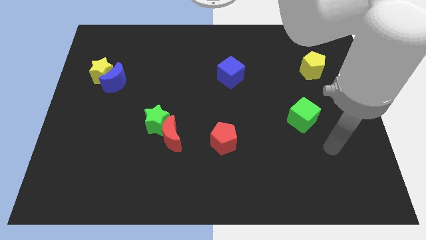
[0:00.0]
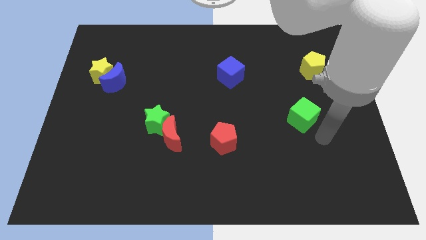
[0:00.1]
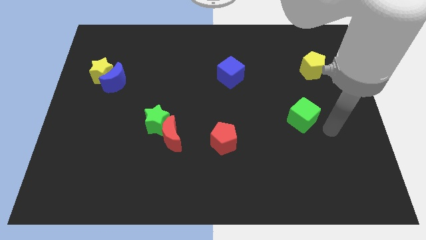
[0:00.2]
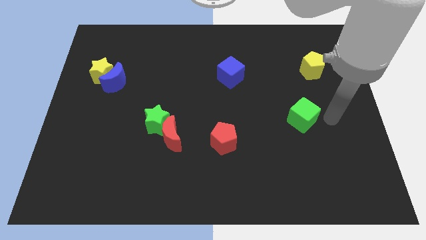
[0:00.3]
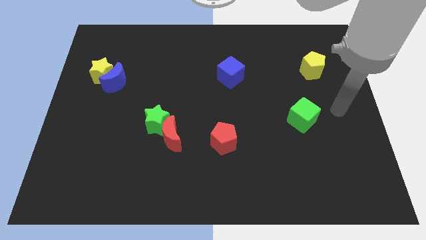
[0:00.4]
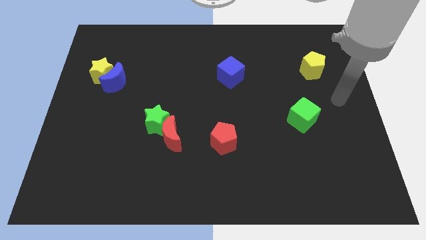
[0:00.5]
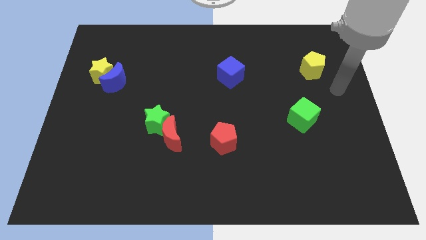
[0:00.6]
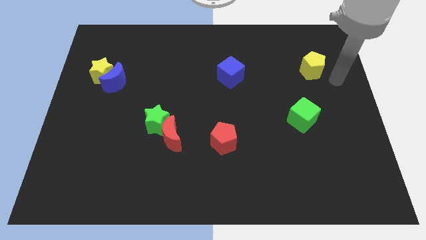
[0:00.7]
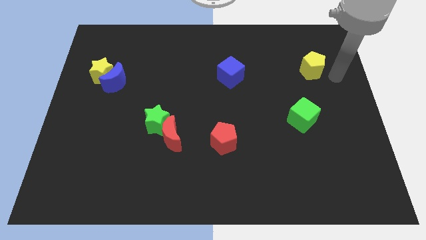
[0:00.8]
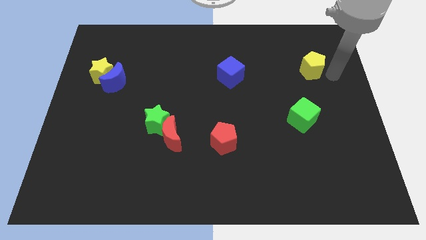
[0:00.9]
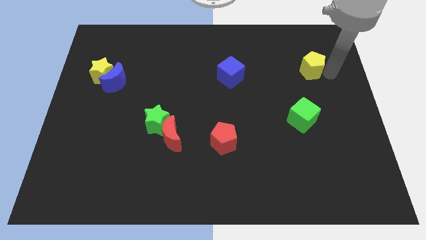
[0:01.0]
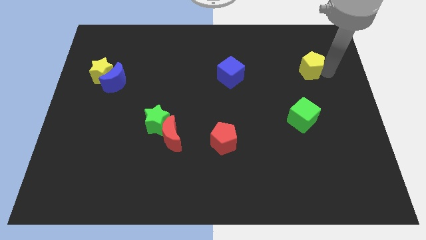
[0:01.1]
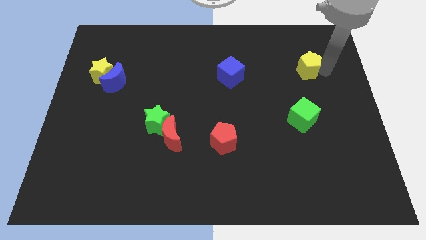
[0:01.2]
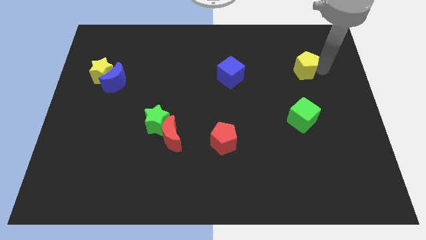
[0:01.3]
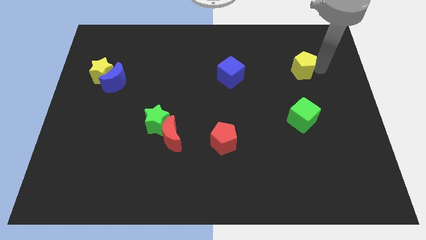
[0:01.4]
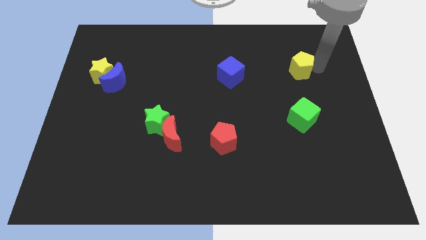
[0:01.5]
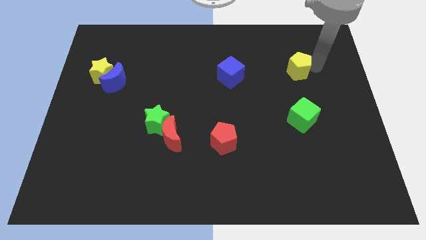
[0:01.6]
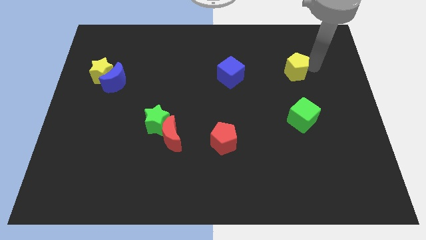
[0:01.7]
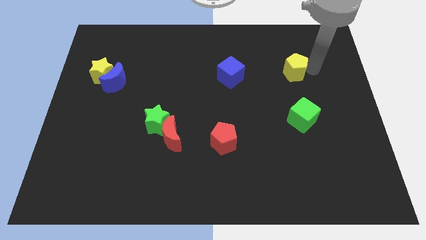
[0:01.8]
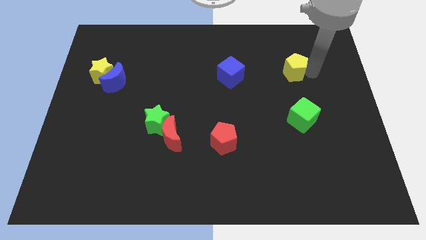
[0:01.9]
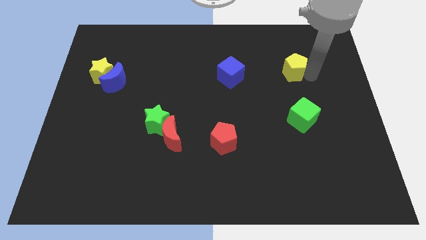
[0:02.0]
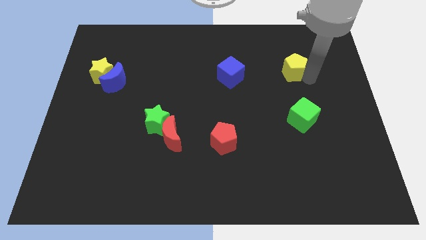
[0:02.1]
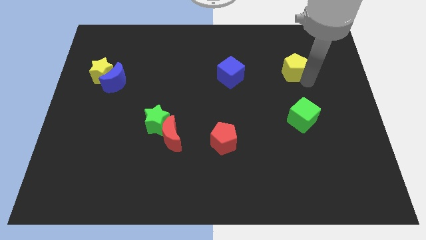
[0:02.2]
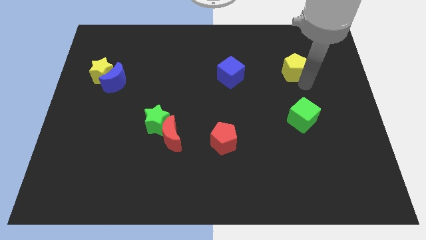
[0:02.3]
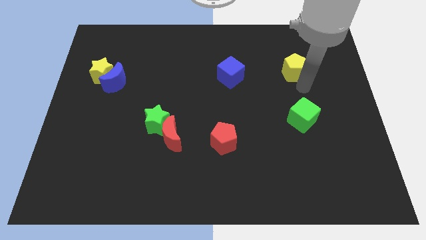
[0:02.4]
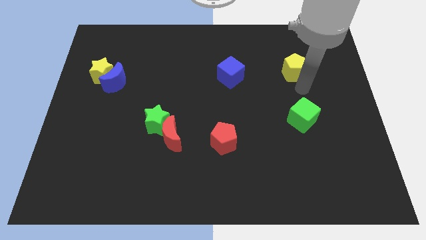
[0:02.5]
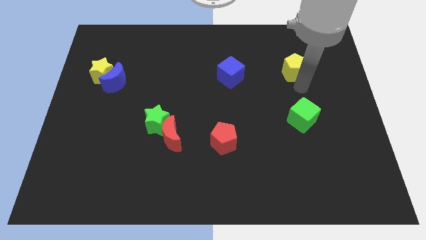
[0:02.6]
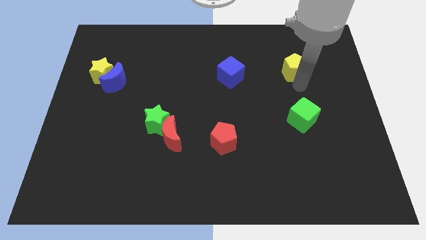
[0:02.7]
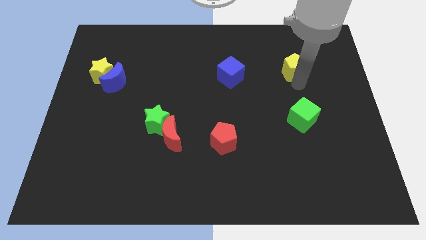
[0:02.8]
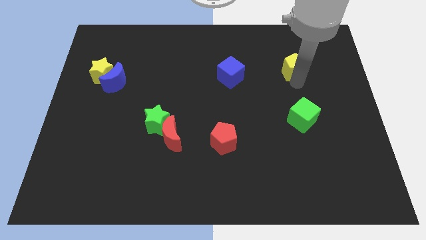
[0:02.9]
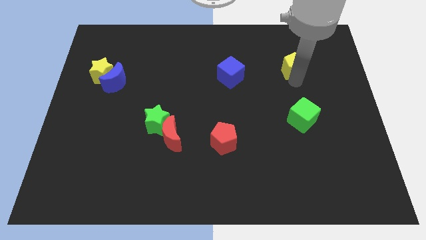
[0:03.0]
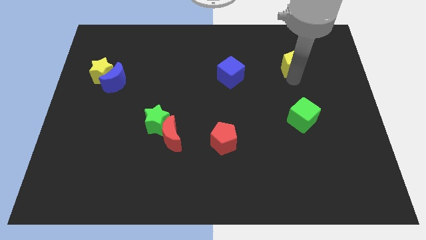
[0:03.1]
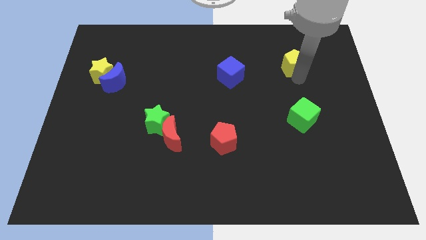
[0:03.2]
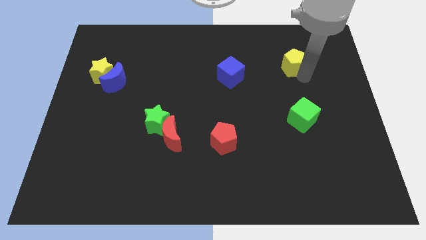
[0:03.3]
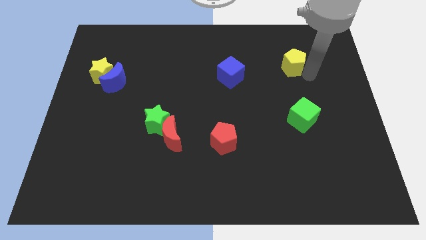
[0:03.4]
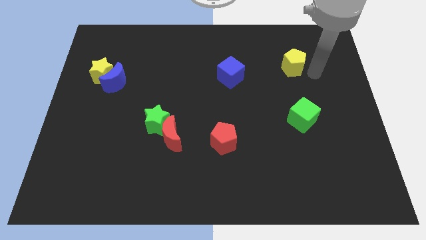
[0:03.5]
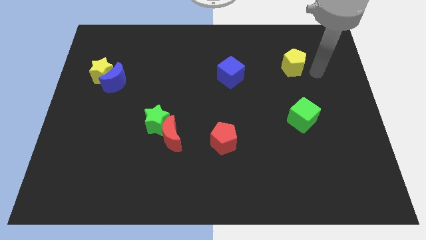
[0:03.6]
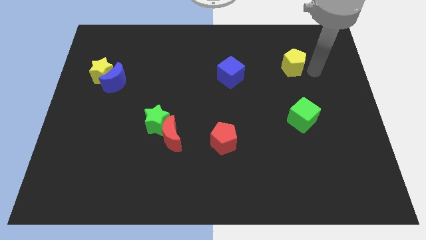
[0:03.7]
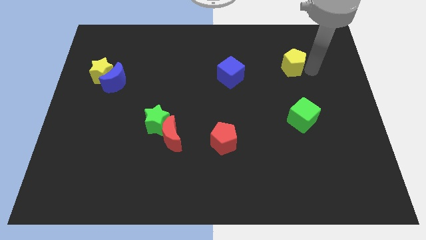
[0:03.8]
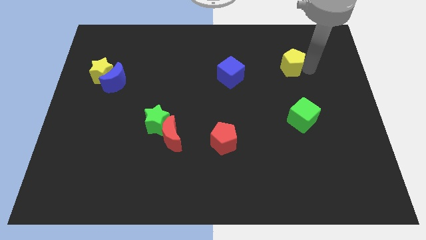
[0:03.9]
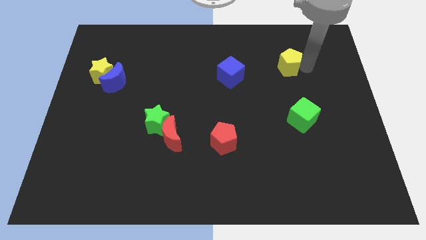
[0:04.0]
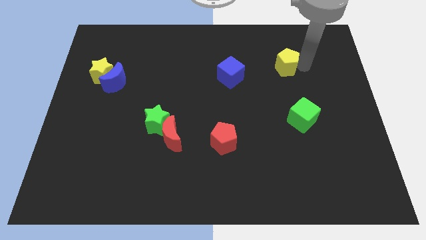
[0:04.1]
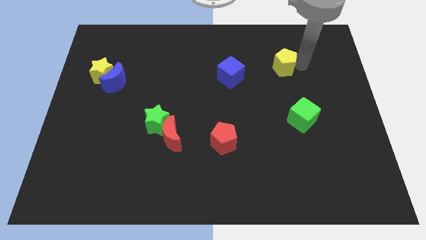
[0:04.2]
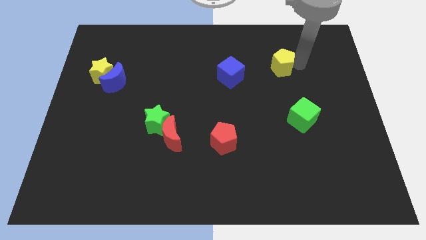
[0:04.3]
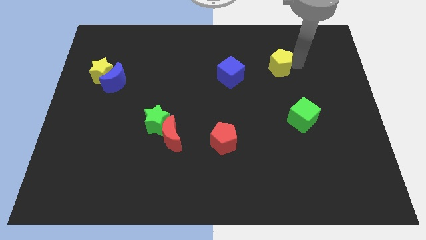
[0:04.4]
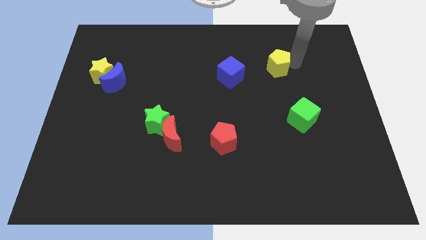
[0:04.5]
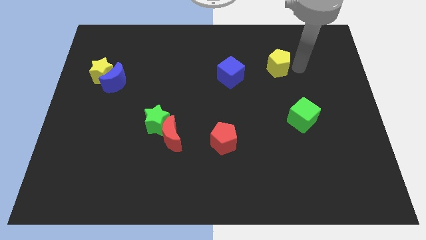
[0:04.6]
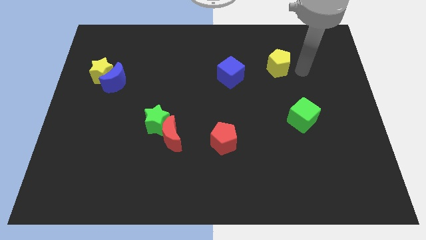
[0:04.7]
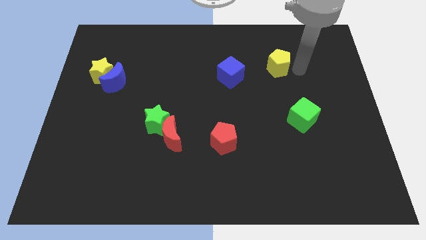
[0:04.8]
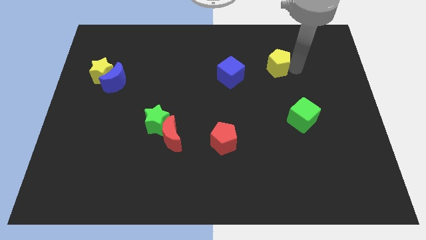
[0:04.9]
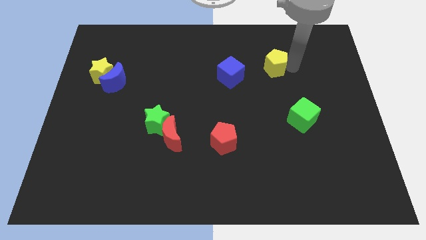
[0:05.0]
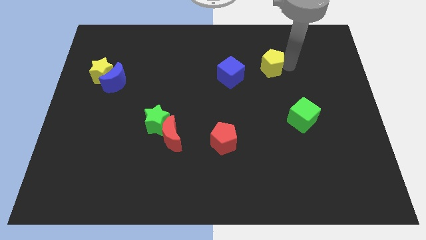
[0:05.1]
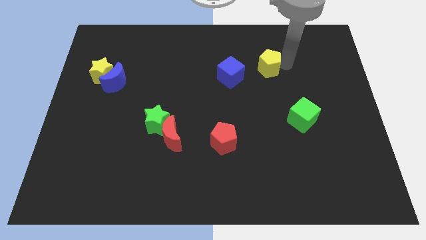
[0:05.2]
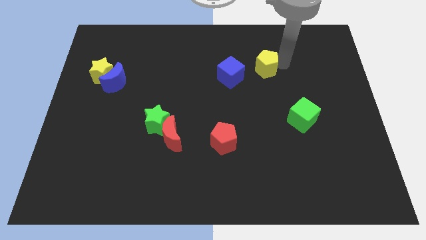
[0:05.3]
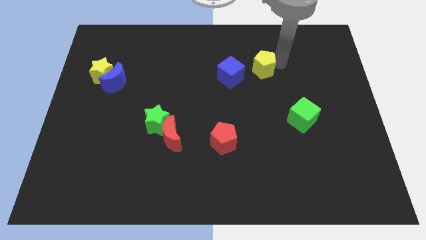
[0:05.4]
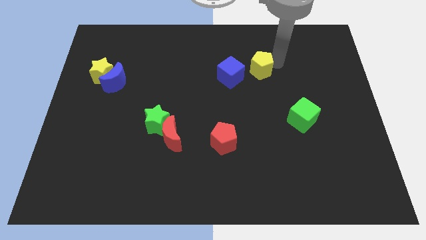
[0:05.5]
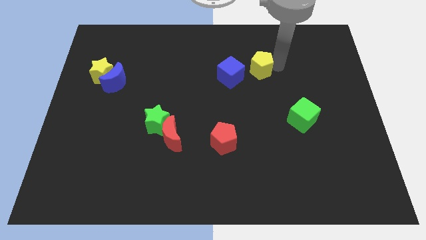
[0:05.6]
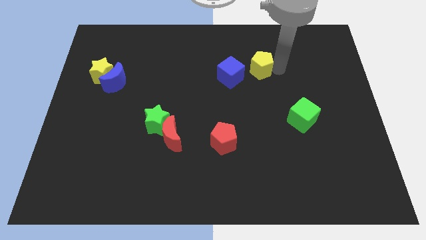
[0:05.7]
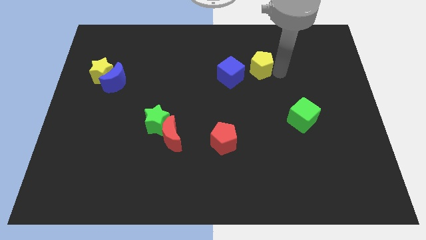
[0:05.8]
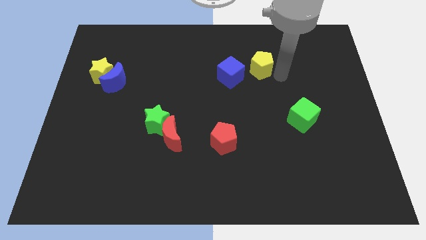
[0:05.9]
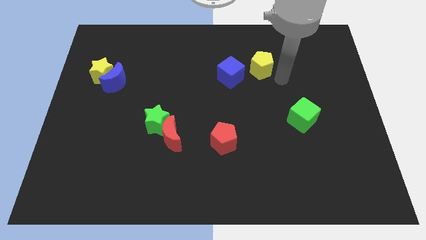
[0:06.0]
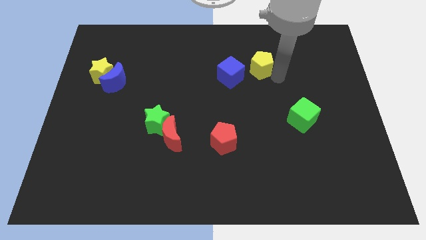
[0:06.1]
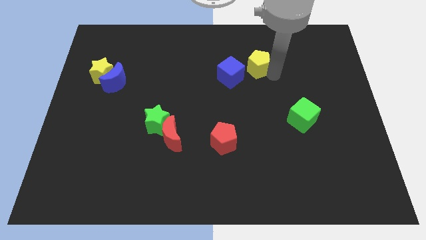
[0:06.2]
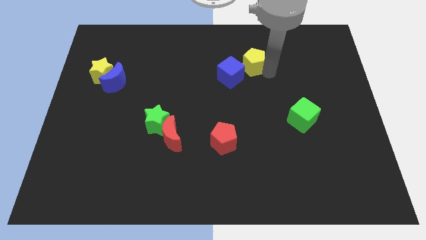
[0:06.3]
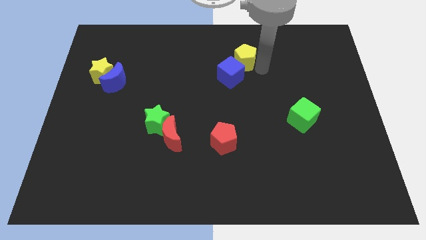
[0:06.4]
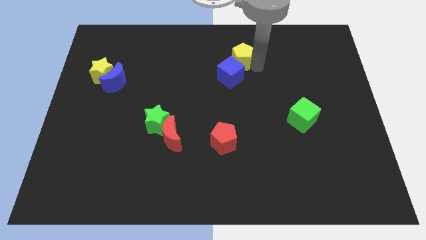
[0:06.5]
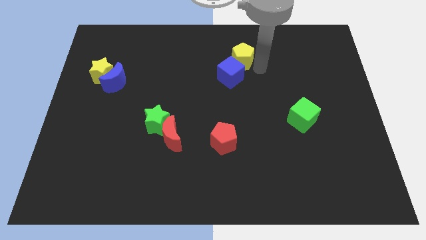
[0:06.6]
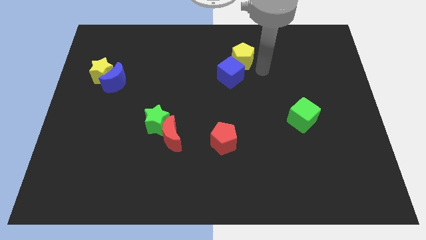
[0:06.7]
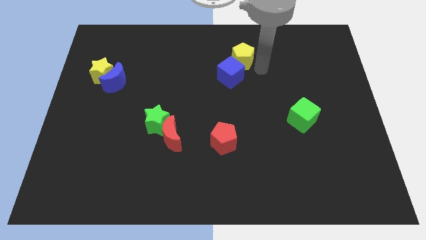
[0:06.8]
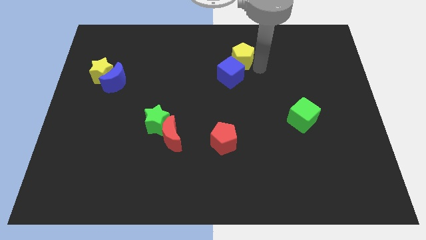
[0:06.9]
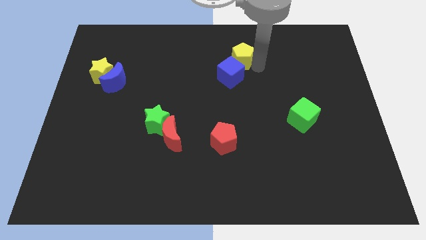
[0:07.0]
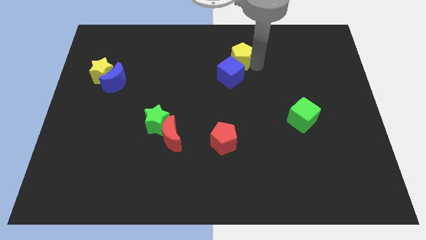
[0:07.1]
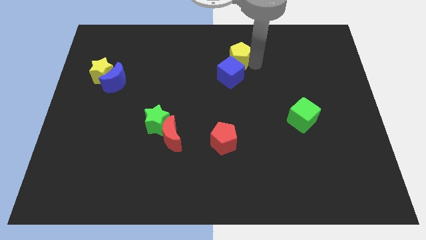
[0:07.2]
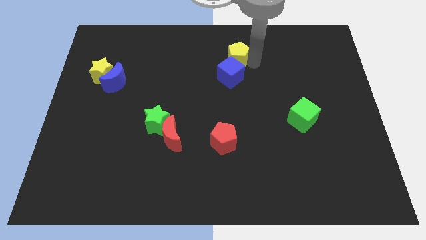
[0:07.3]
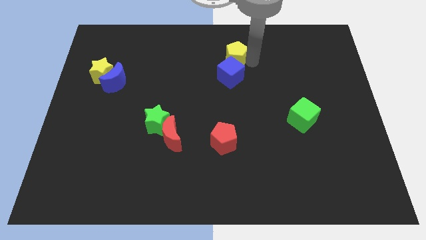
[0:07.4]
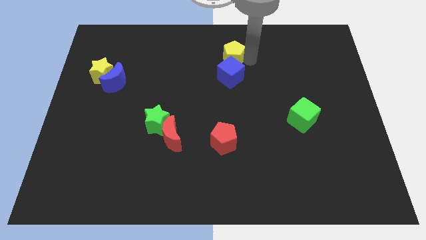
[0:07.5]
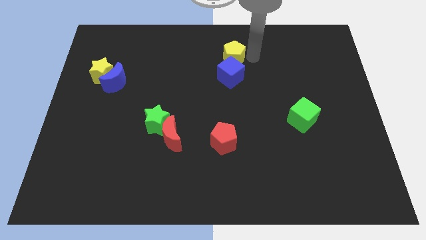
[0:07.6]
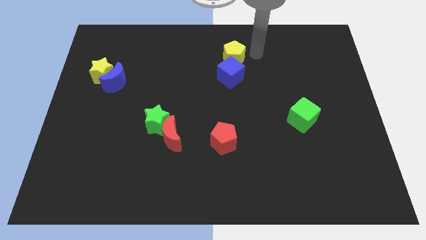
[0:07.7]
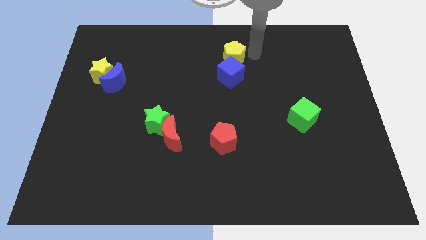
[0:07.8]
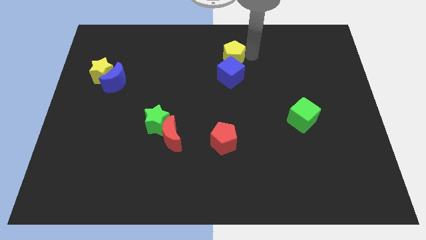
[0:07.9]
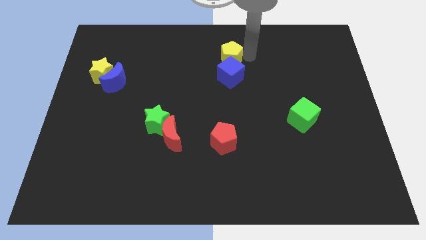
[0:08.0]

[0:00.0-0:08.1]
put the yellow pentagon to the top left side of the blue cube
